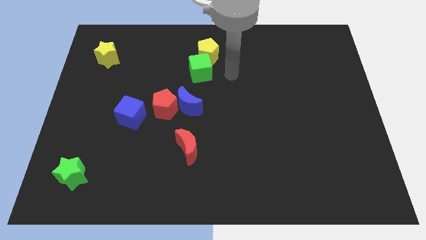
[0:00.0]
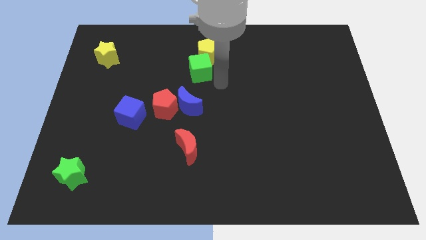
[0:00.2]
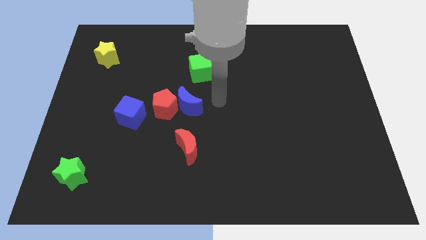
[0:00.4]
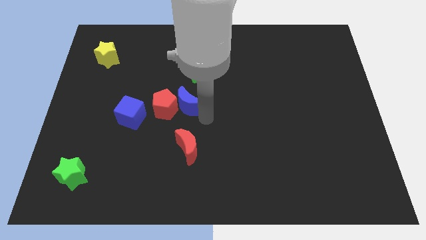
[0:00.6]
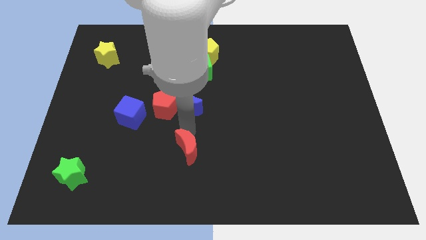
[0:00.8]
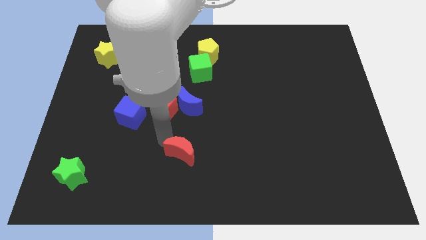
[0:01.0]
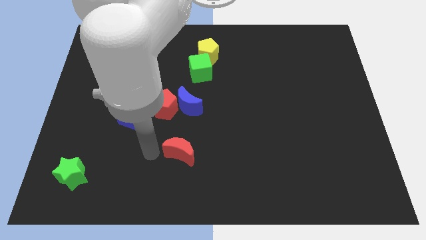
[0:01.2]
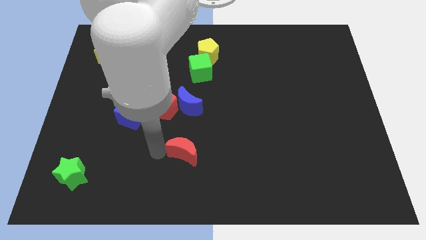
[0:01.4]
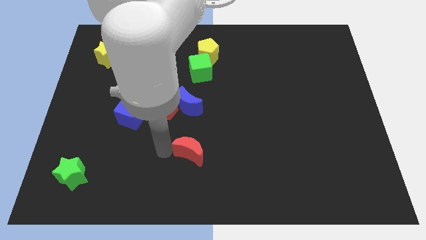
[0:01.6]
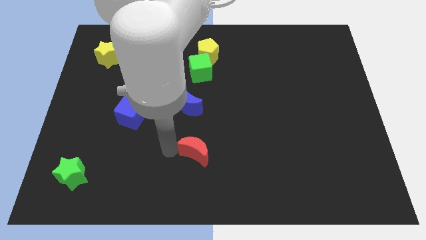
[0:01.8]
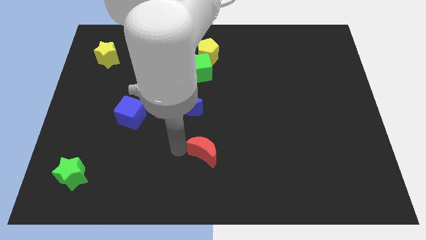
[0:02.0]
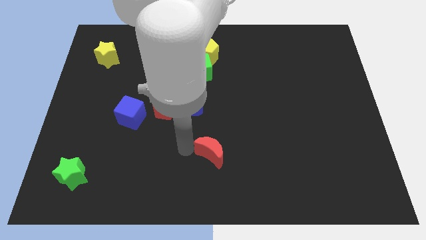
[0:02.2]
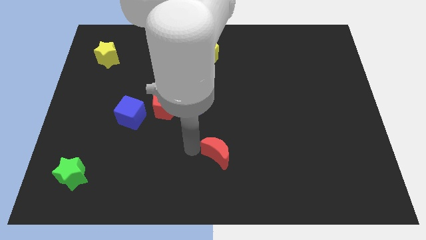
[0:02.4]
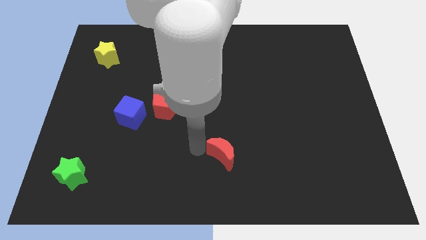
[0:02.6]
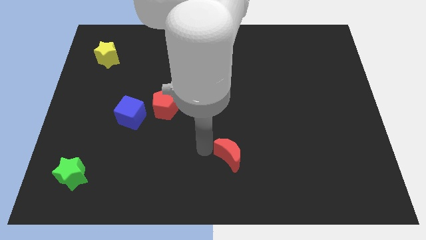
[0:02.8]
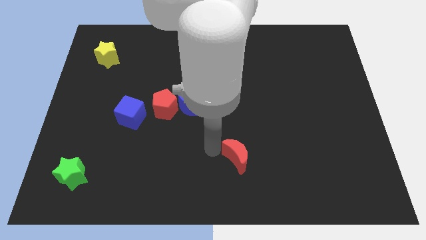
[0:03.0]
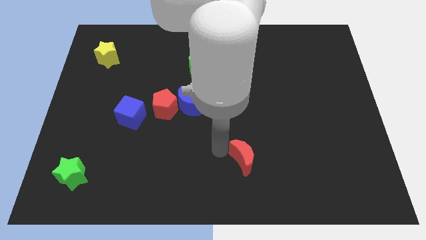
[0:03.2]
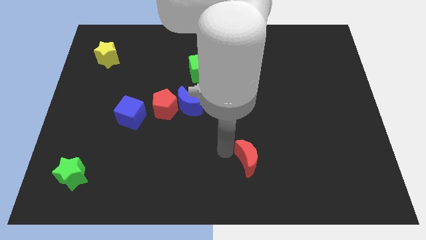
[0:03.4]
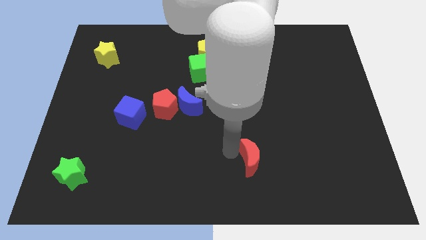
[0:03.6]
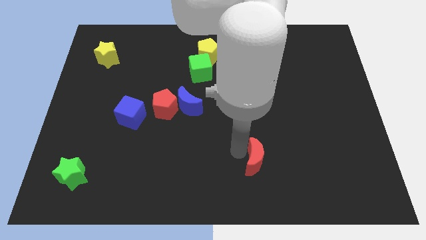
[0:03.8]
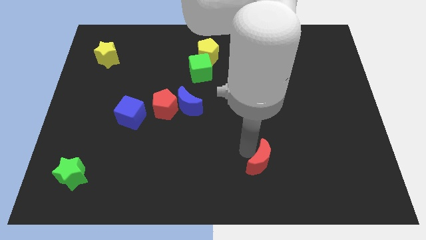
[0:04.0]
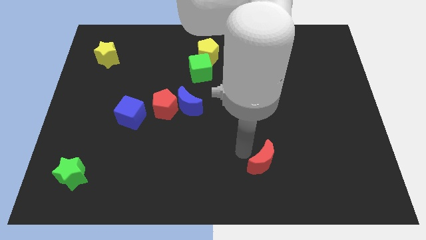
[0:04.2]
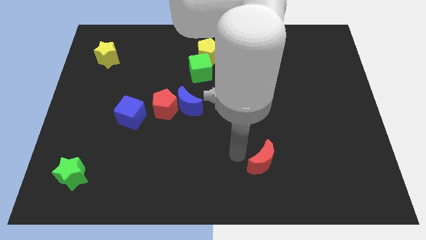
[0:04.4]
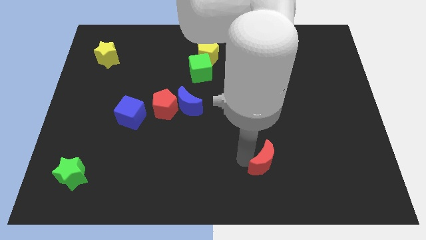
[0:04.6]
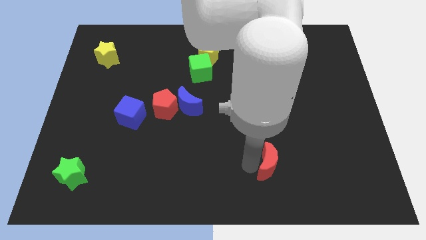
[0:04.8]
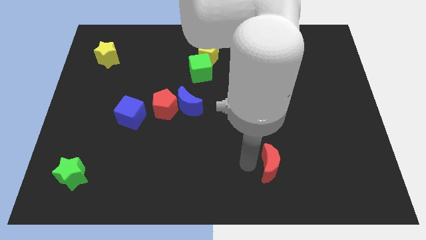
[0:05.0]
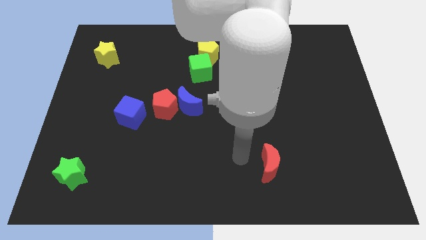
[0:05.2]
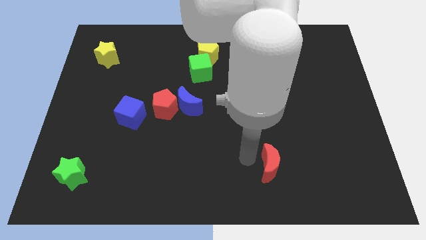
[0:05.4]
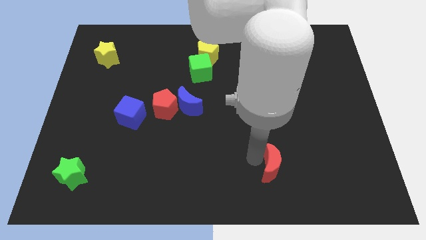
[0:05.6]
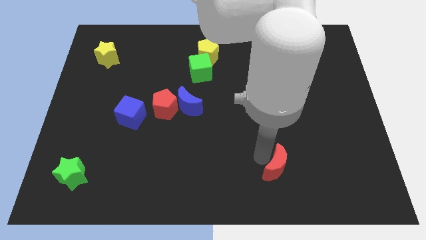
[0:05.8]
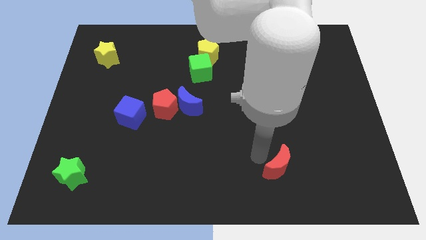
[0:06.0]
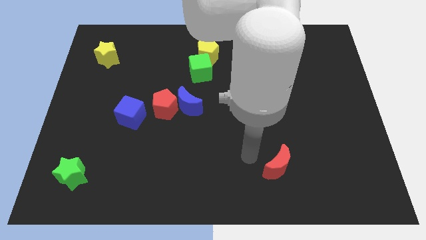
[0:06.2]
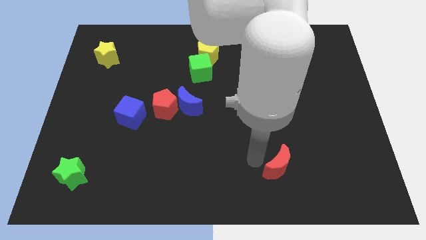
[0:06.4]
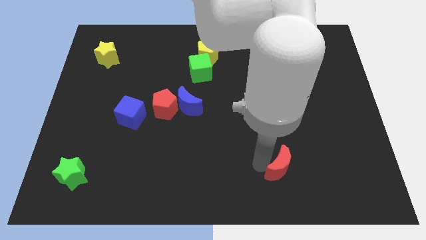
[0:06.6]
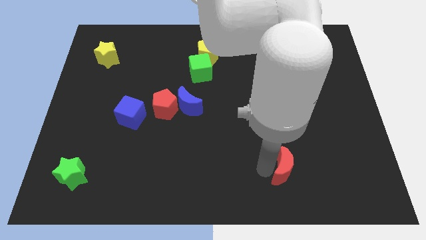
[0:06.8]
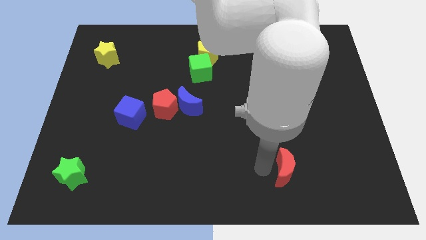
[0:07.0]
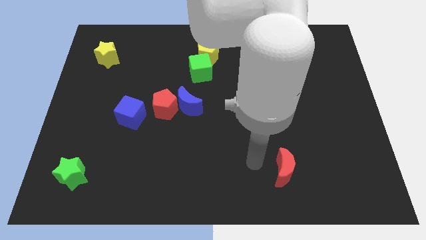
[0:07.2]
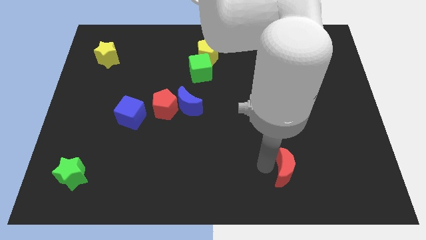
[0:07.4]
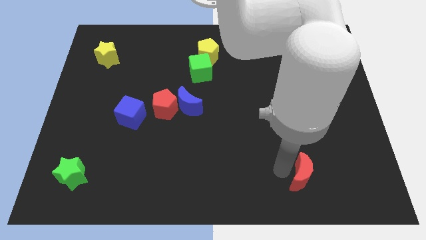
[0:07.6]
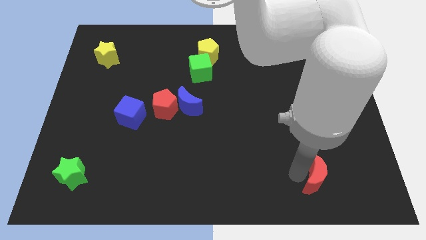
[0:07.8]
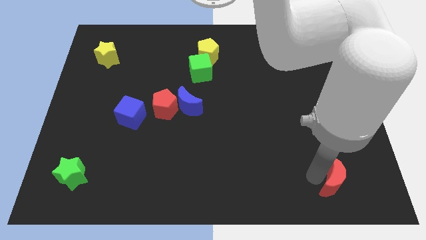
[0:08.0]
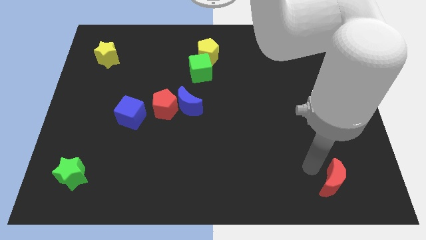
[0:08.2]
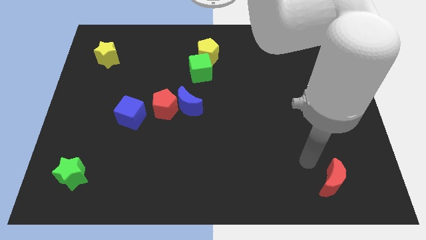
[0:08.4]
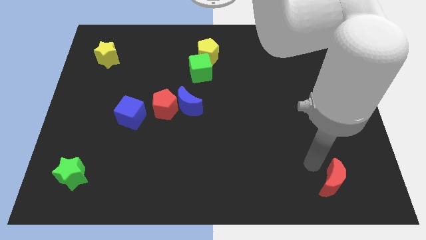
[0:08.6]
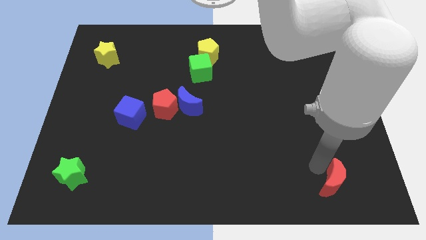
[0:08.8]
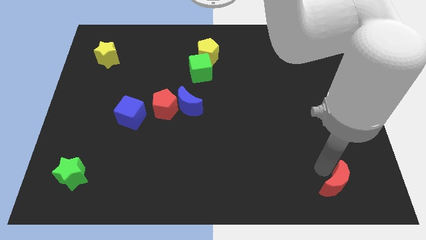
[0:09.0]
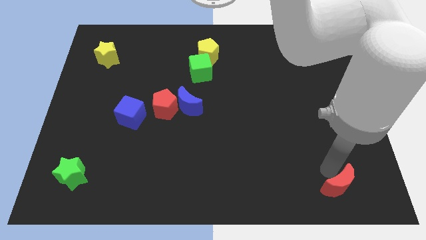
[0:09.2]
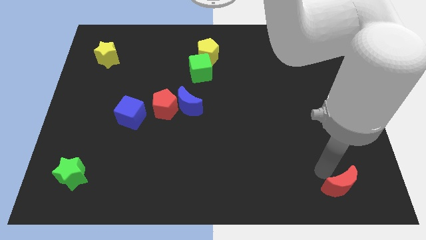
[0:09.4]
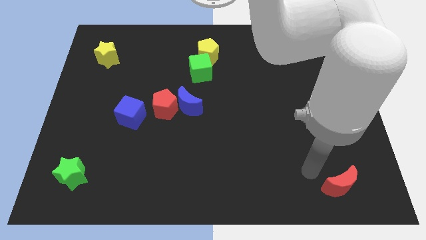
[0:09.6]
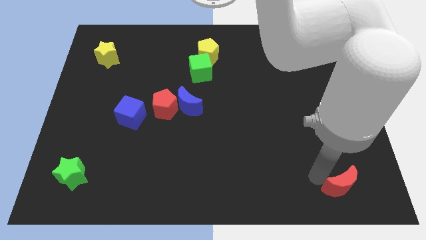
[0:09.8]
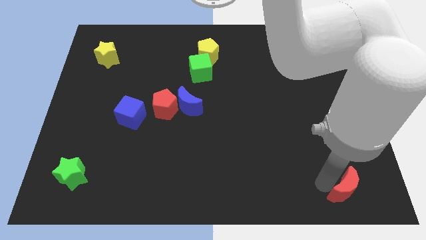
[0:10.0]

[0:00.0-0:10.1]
push the red moon to the bottom right of the board

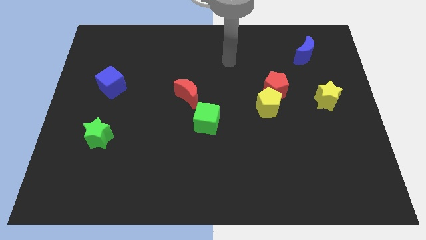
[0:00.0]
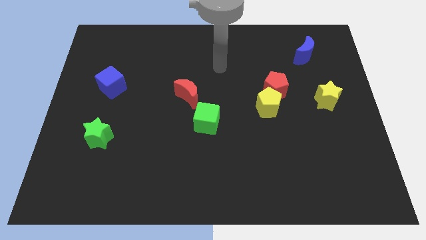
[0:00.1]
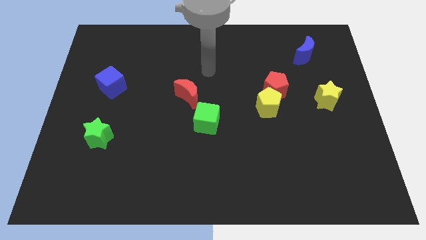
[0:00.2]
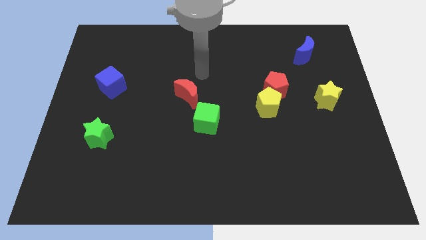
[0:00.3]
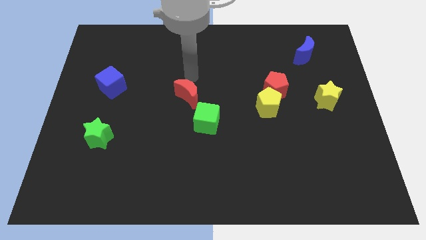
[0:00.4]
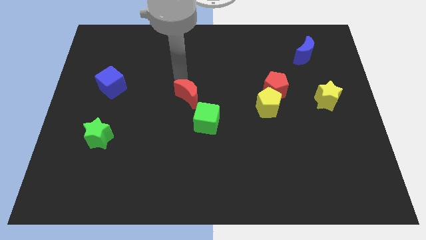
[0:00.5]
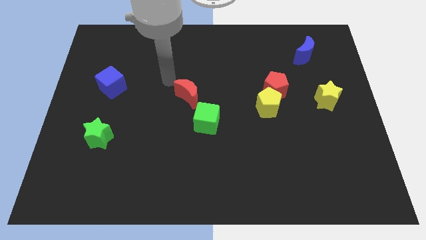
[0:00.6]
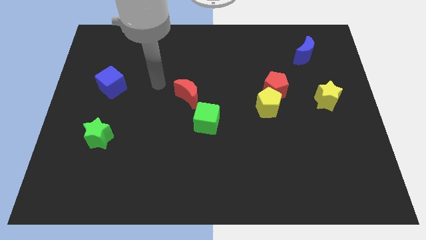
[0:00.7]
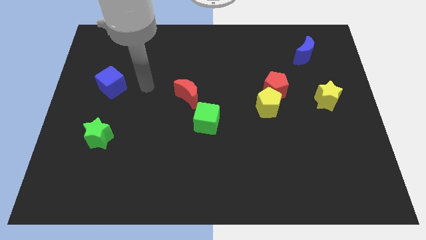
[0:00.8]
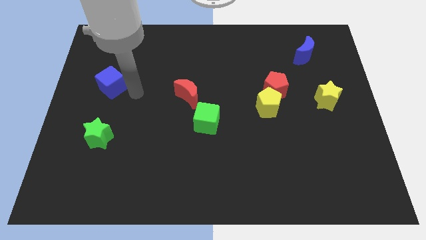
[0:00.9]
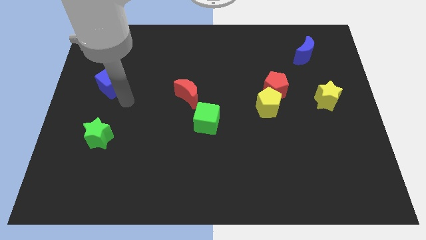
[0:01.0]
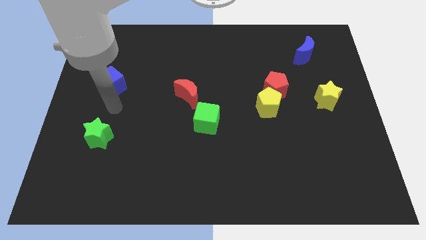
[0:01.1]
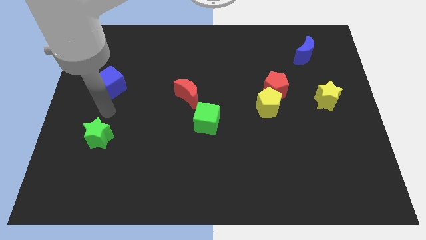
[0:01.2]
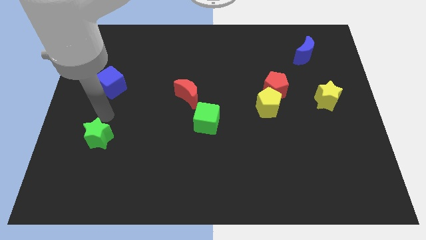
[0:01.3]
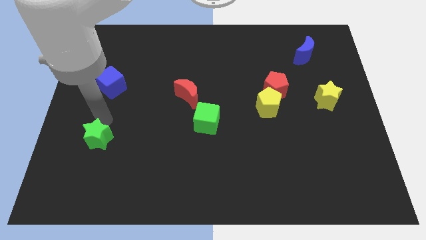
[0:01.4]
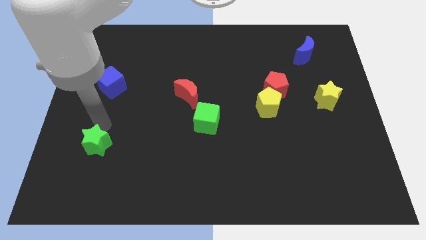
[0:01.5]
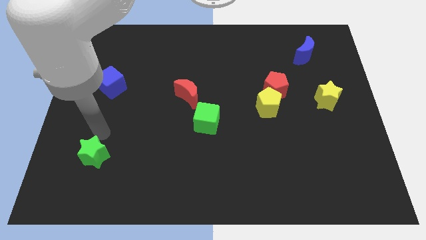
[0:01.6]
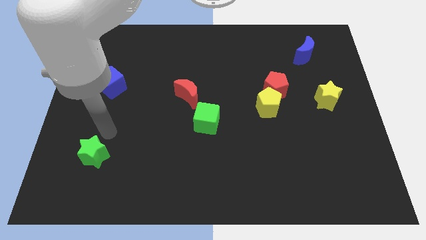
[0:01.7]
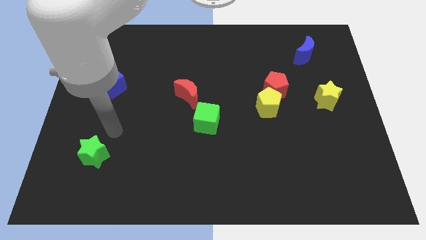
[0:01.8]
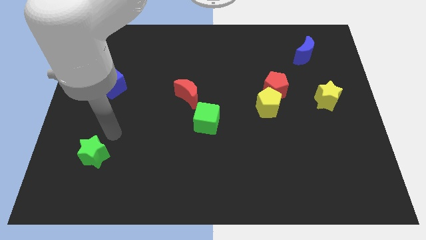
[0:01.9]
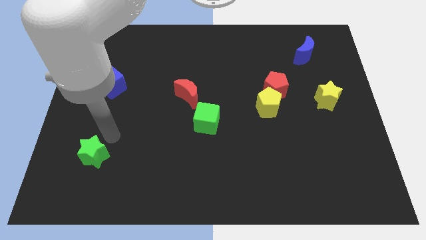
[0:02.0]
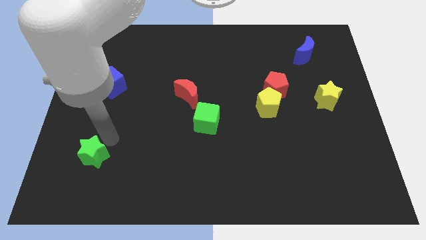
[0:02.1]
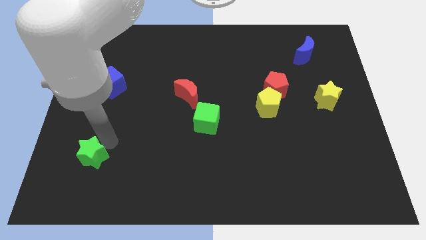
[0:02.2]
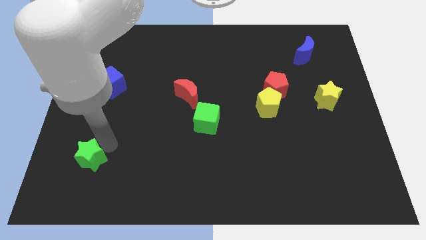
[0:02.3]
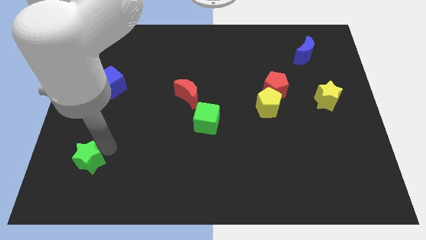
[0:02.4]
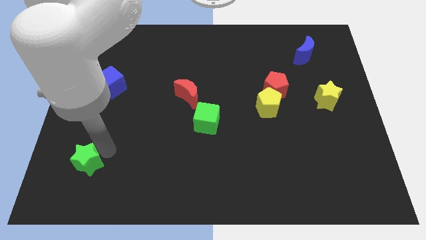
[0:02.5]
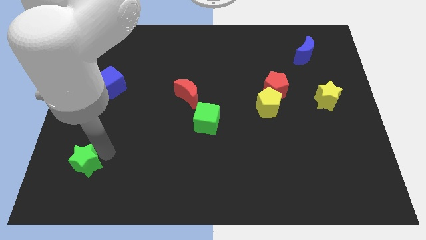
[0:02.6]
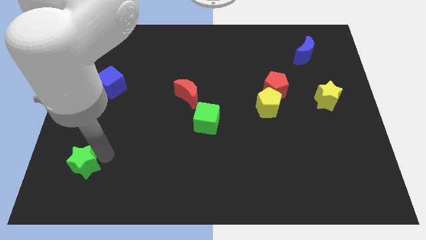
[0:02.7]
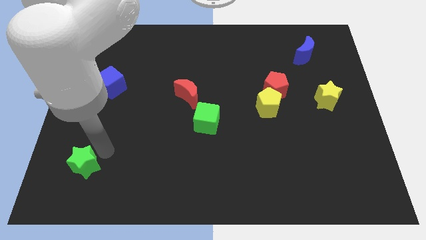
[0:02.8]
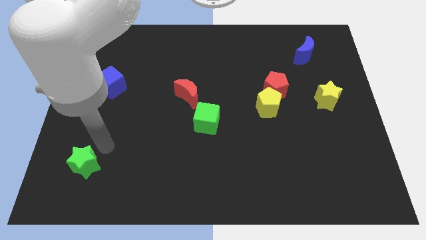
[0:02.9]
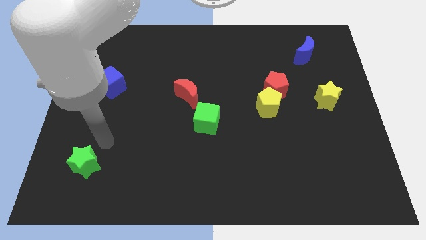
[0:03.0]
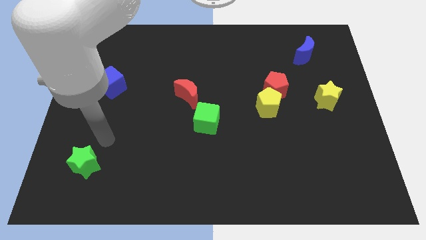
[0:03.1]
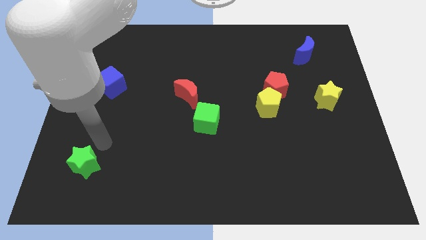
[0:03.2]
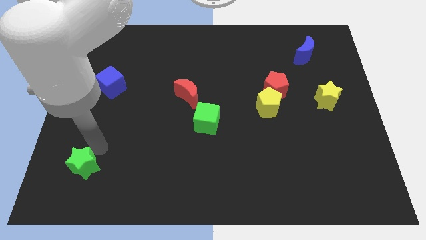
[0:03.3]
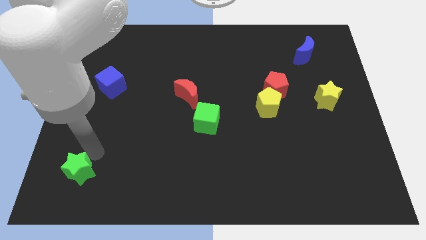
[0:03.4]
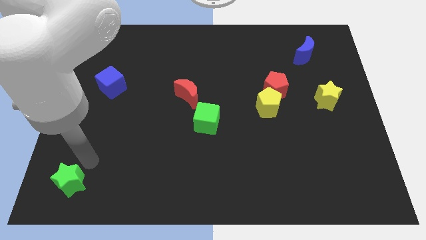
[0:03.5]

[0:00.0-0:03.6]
put the green star to the bottom left corner
